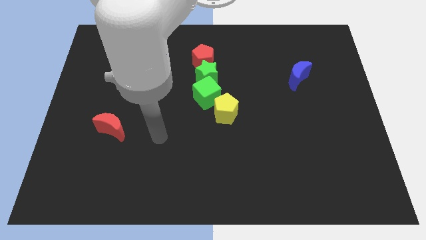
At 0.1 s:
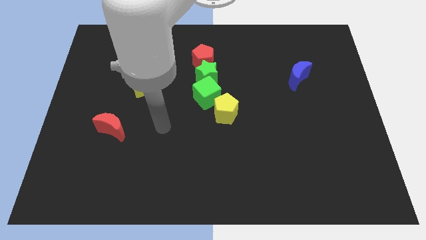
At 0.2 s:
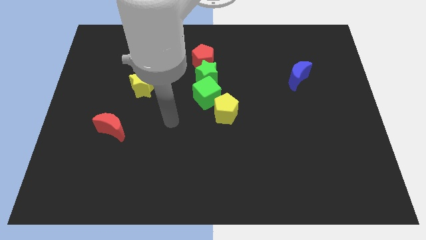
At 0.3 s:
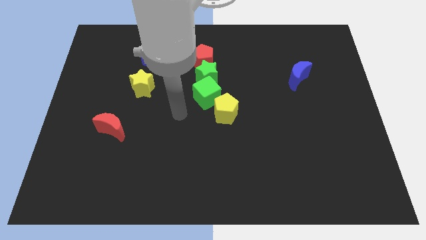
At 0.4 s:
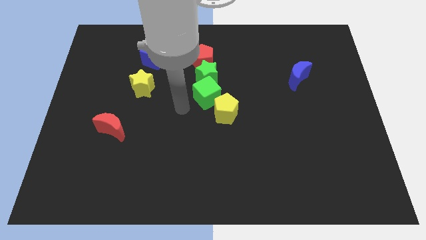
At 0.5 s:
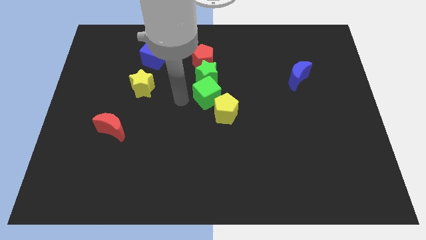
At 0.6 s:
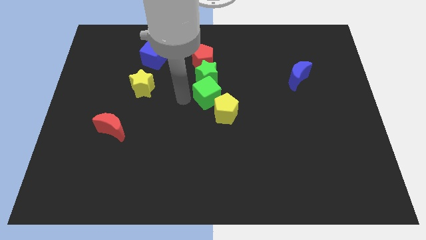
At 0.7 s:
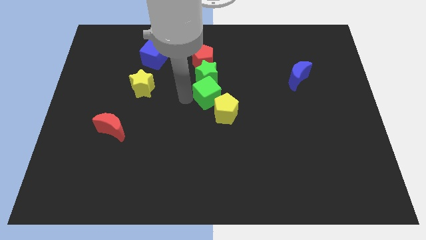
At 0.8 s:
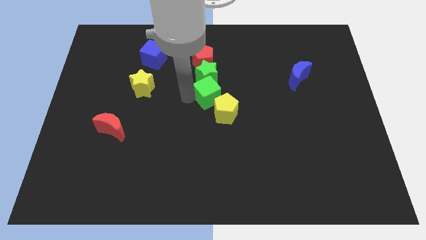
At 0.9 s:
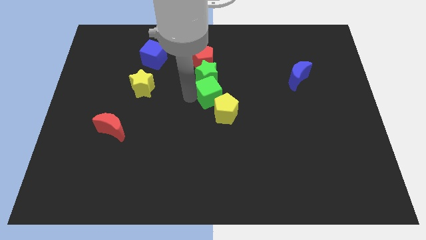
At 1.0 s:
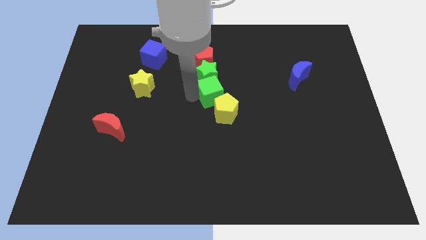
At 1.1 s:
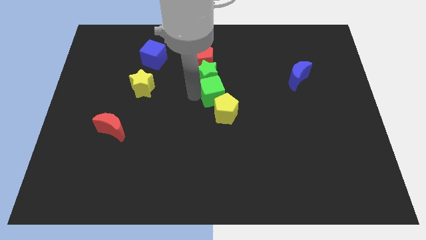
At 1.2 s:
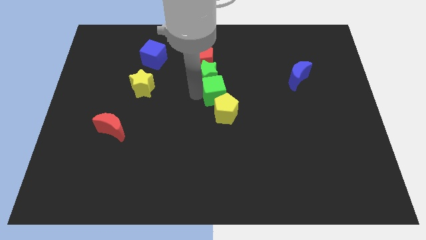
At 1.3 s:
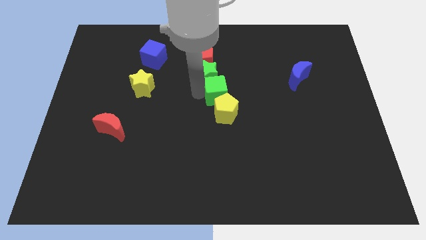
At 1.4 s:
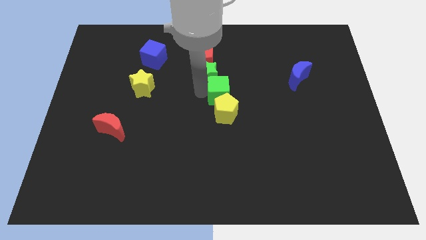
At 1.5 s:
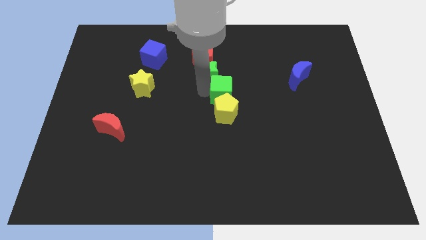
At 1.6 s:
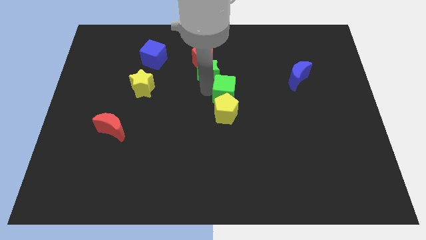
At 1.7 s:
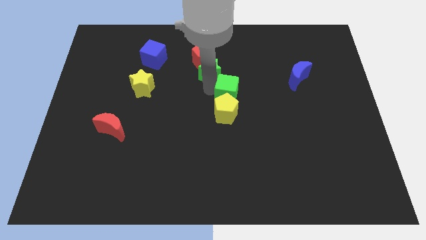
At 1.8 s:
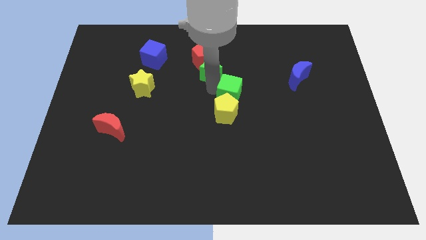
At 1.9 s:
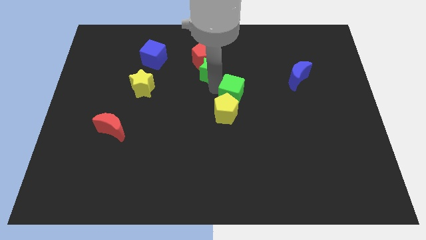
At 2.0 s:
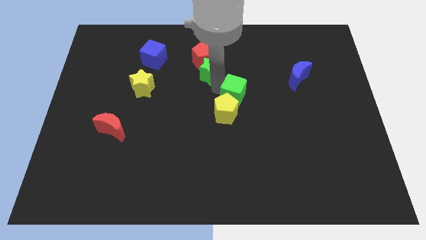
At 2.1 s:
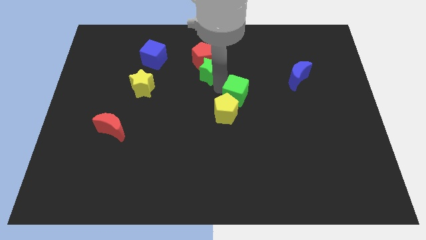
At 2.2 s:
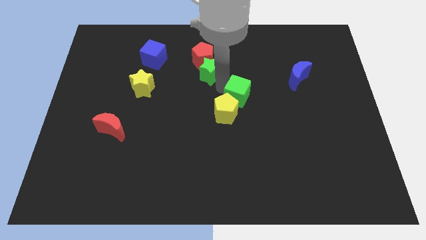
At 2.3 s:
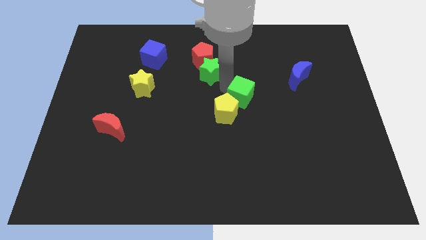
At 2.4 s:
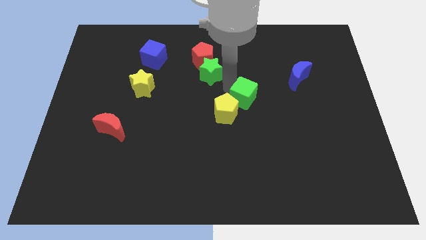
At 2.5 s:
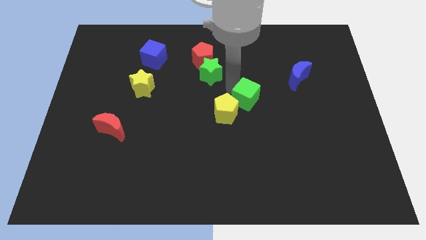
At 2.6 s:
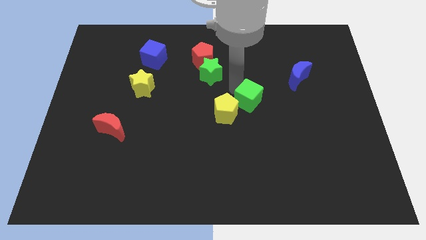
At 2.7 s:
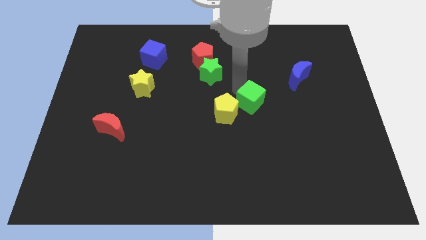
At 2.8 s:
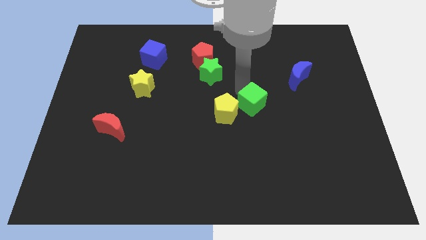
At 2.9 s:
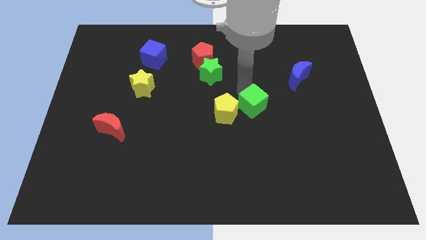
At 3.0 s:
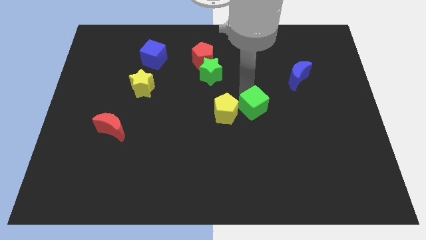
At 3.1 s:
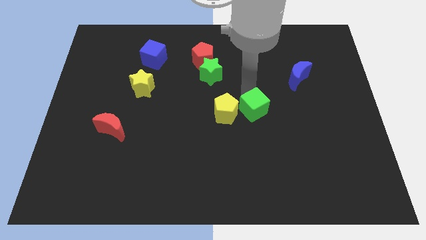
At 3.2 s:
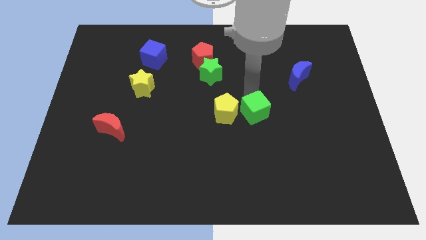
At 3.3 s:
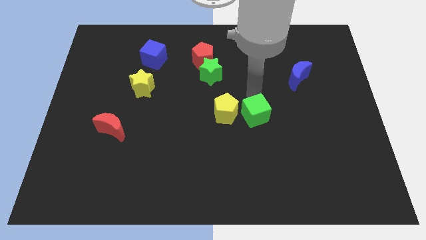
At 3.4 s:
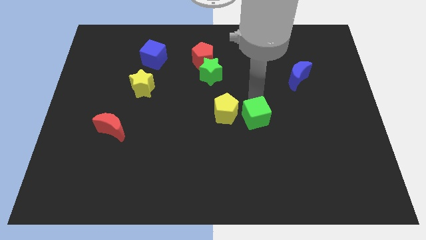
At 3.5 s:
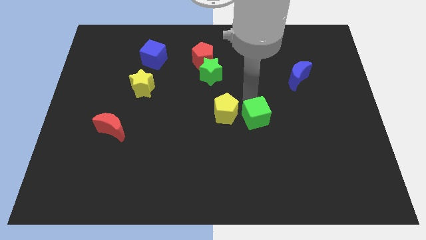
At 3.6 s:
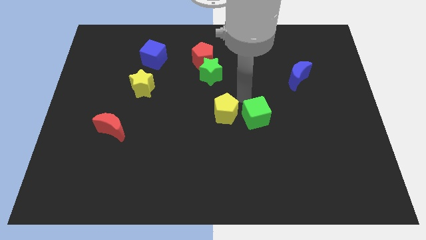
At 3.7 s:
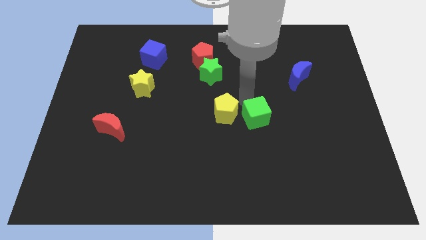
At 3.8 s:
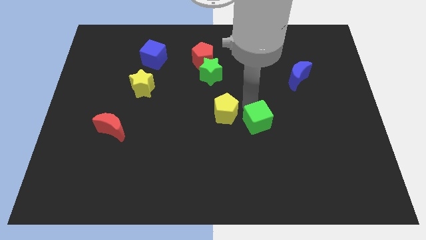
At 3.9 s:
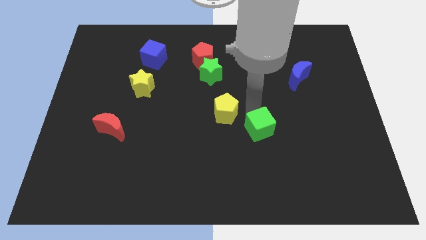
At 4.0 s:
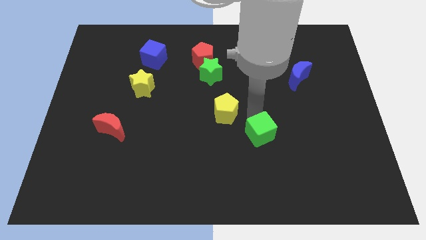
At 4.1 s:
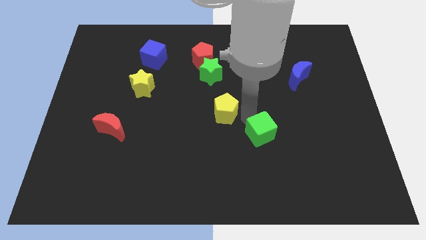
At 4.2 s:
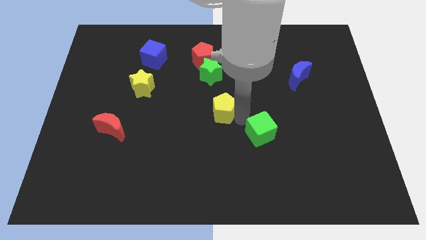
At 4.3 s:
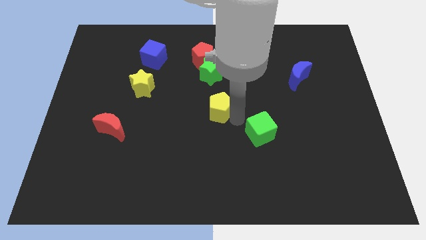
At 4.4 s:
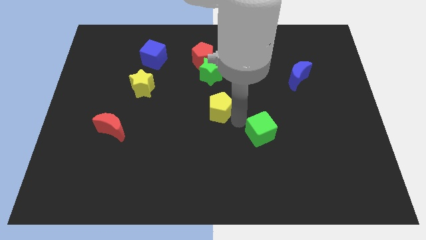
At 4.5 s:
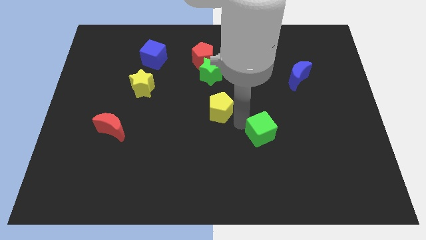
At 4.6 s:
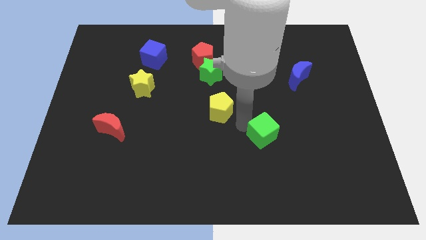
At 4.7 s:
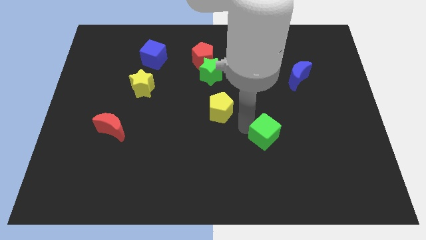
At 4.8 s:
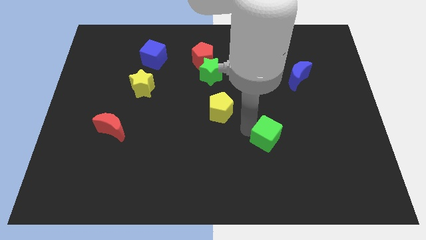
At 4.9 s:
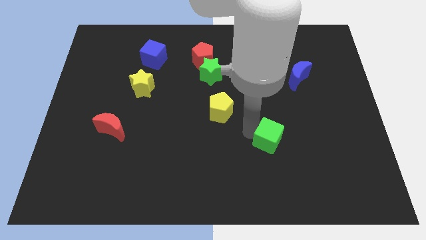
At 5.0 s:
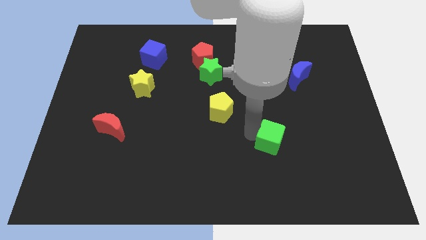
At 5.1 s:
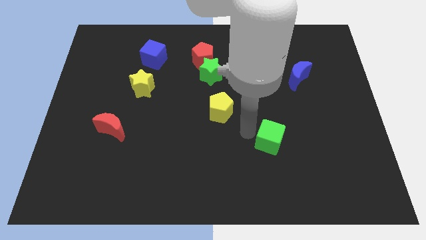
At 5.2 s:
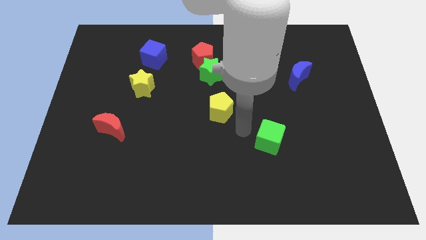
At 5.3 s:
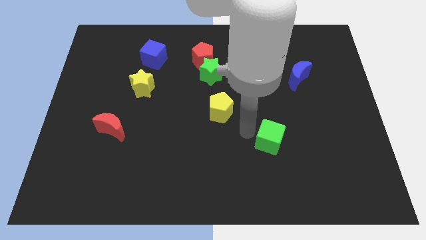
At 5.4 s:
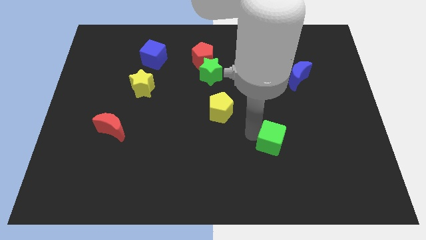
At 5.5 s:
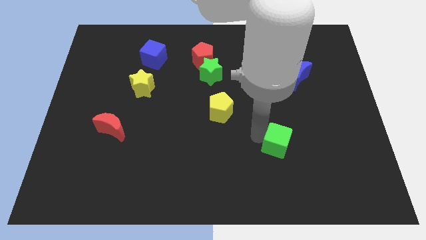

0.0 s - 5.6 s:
move the green cube downwards and right diagonally

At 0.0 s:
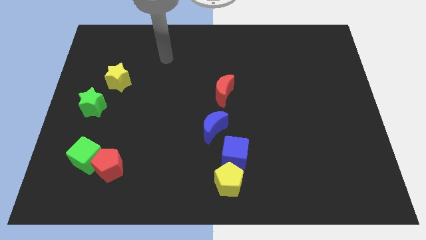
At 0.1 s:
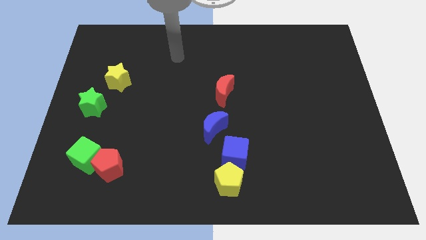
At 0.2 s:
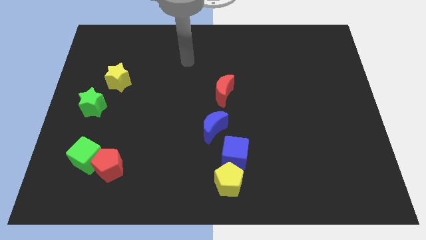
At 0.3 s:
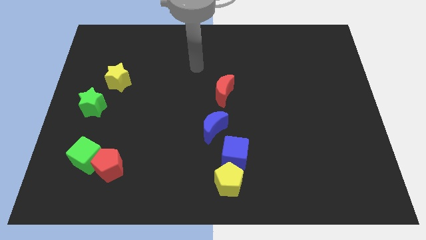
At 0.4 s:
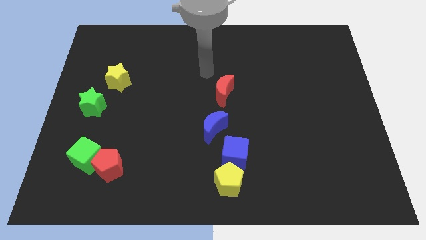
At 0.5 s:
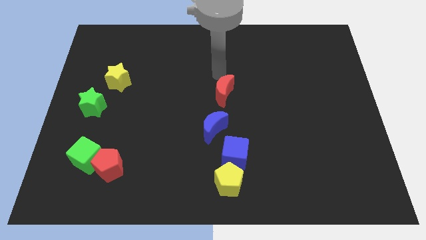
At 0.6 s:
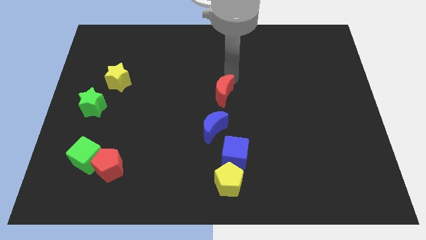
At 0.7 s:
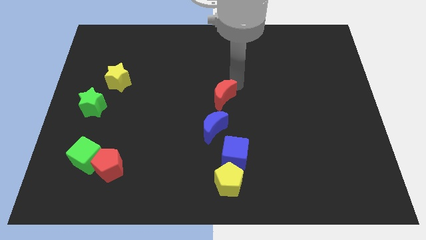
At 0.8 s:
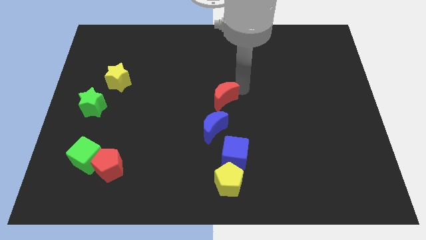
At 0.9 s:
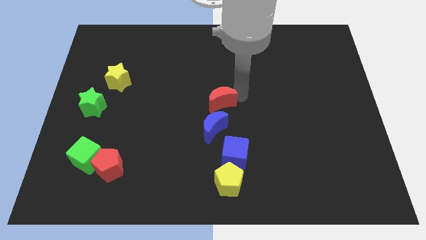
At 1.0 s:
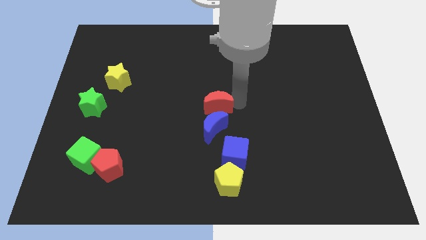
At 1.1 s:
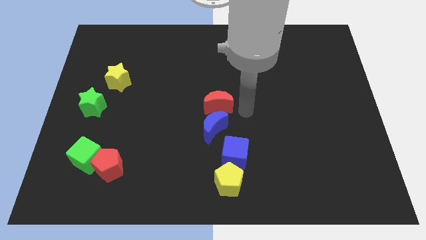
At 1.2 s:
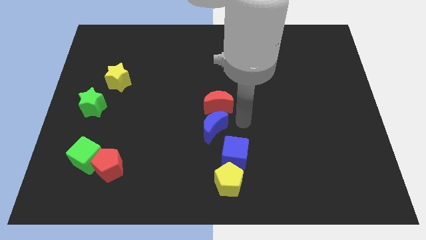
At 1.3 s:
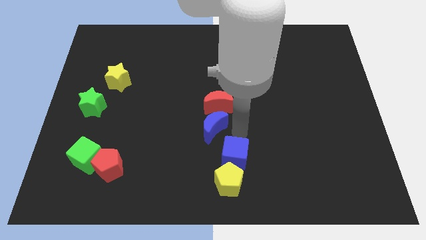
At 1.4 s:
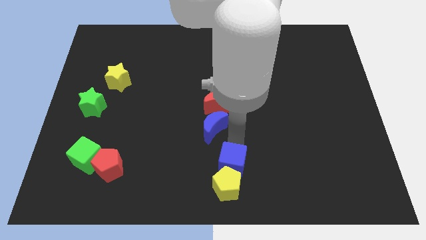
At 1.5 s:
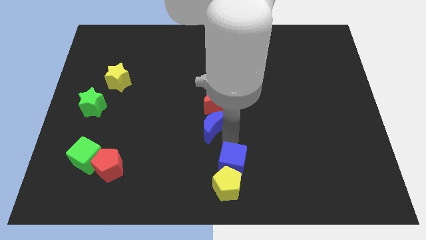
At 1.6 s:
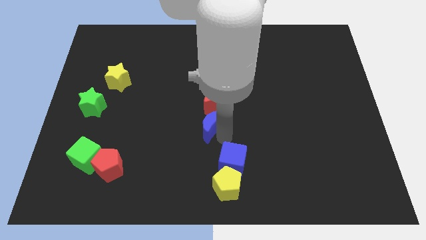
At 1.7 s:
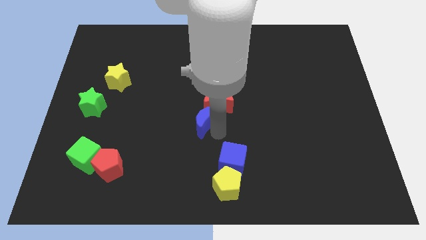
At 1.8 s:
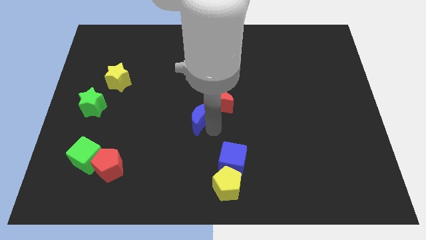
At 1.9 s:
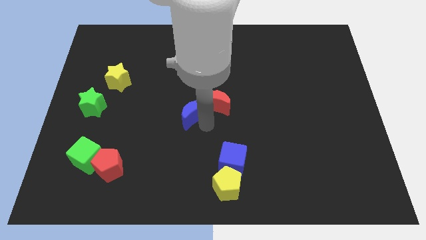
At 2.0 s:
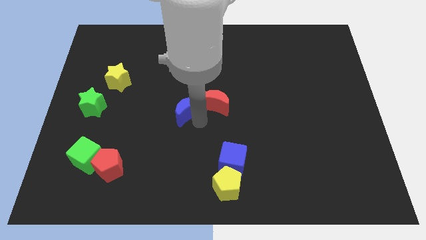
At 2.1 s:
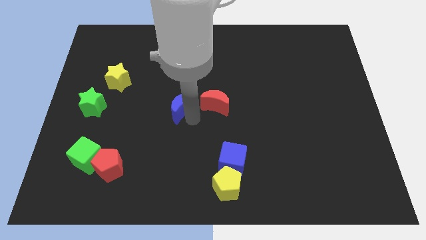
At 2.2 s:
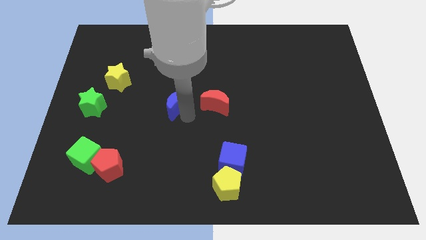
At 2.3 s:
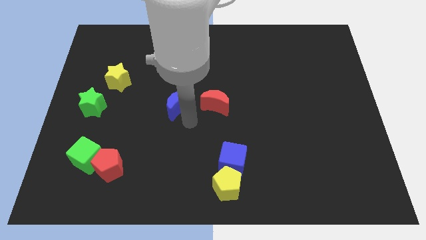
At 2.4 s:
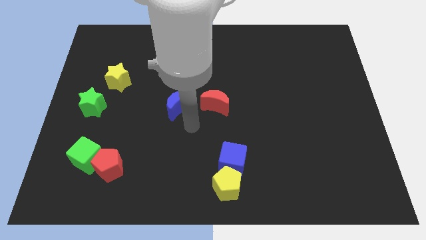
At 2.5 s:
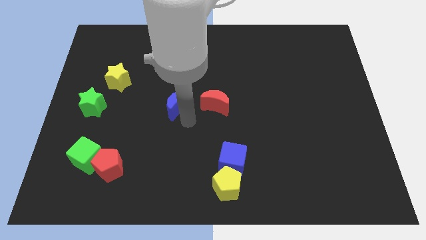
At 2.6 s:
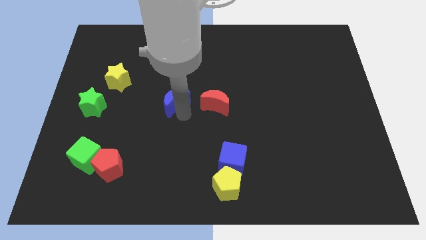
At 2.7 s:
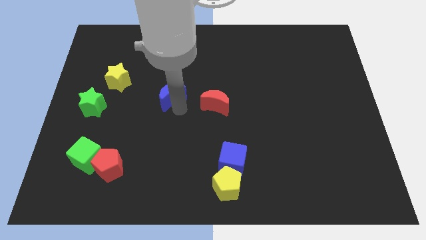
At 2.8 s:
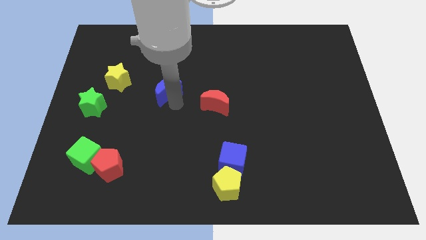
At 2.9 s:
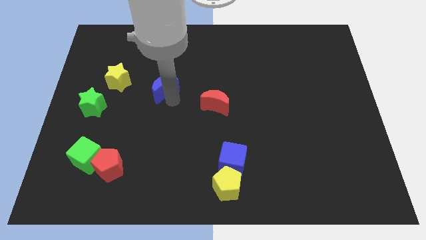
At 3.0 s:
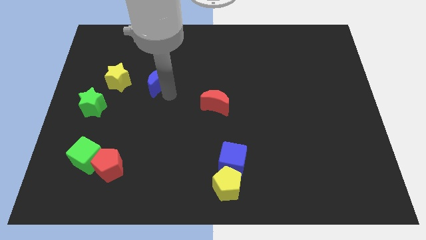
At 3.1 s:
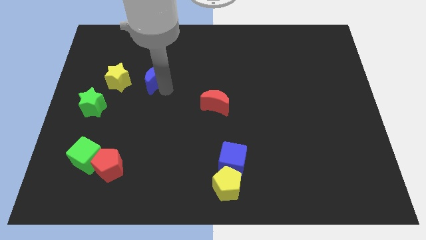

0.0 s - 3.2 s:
slide the blue moon diagonally up and to the left
